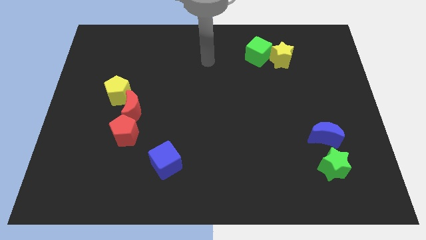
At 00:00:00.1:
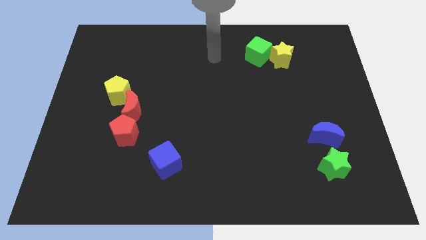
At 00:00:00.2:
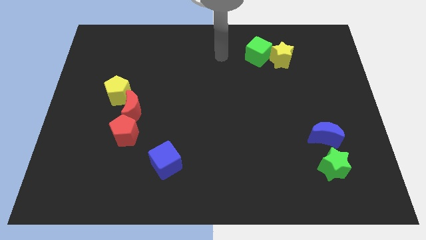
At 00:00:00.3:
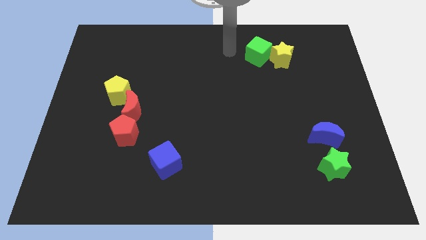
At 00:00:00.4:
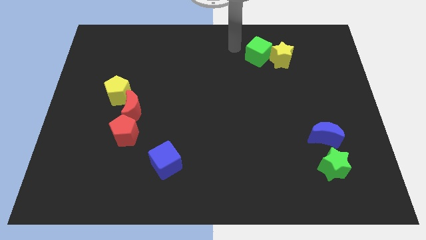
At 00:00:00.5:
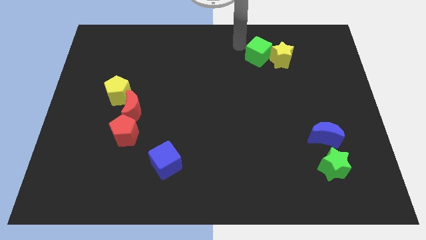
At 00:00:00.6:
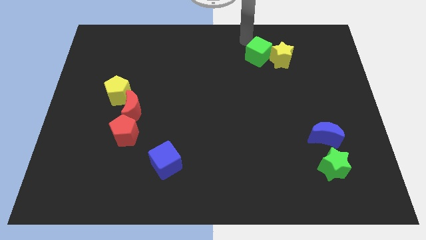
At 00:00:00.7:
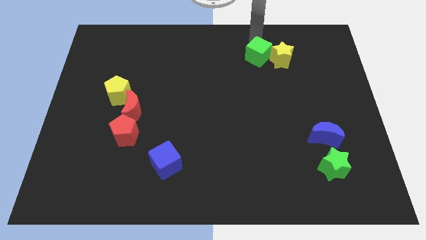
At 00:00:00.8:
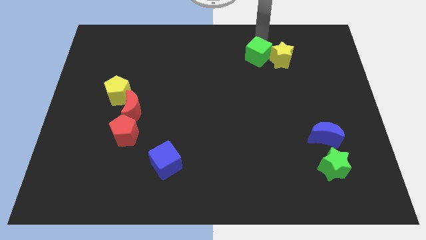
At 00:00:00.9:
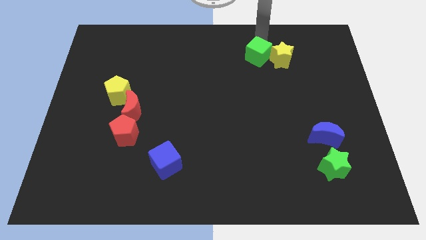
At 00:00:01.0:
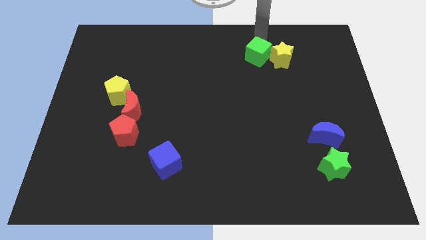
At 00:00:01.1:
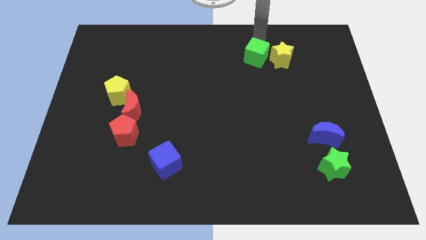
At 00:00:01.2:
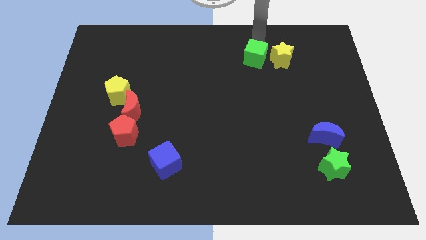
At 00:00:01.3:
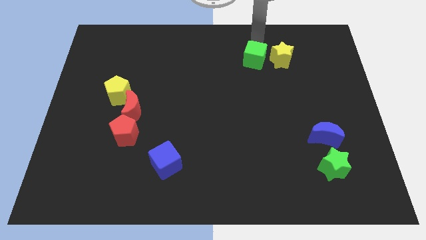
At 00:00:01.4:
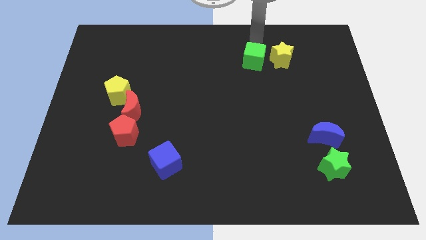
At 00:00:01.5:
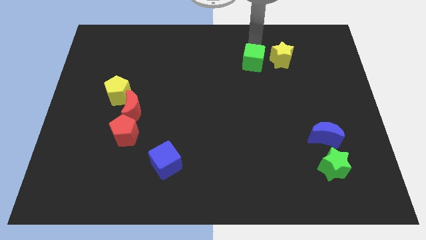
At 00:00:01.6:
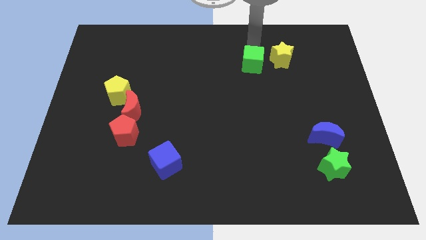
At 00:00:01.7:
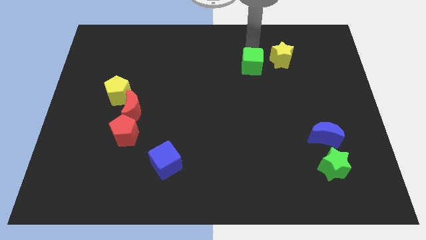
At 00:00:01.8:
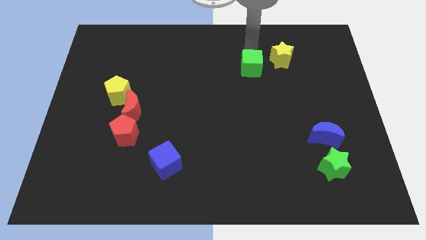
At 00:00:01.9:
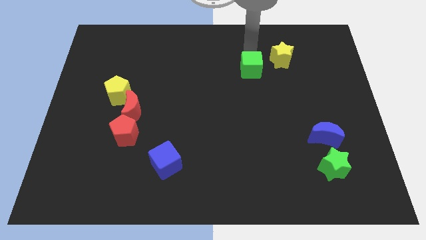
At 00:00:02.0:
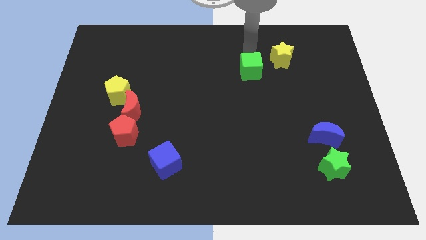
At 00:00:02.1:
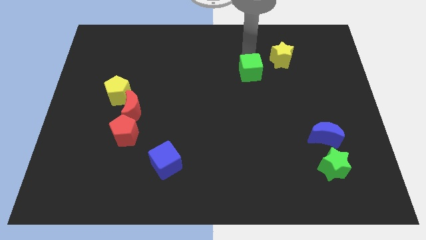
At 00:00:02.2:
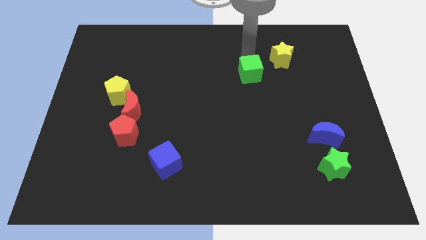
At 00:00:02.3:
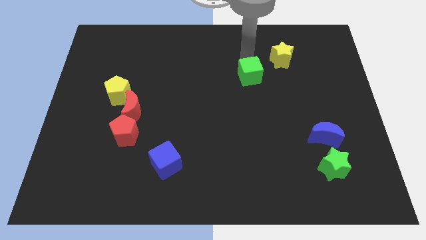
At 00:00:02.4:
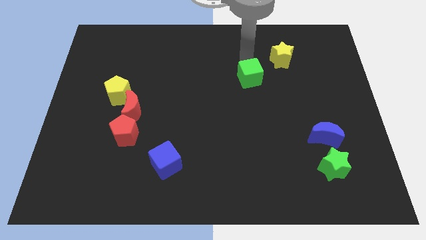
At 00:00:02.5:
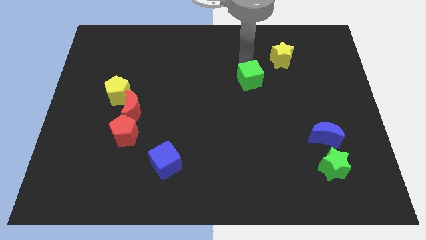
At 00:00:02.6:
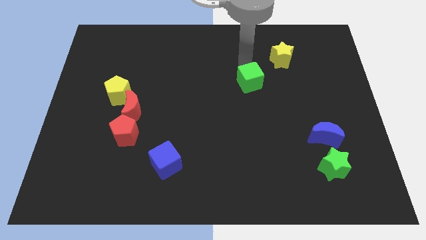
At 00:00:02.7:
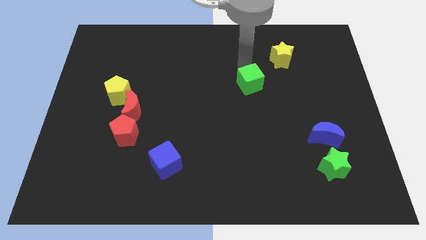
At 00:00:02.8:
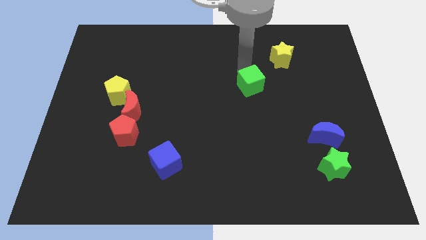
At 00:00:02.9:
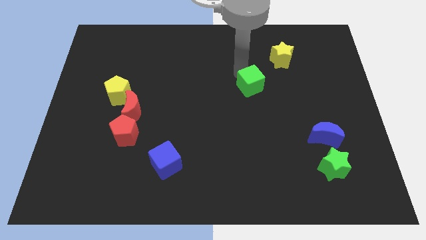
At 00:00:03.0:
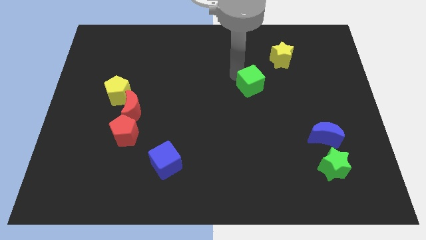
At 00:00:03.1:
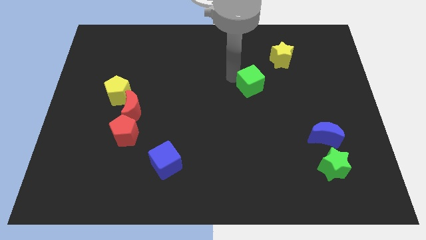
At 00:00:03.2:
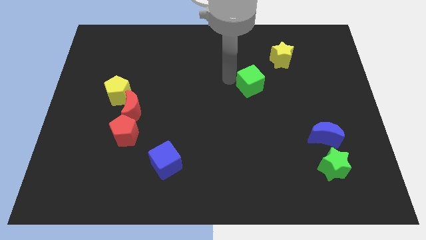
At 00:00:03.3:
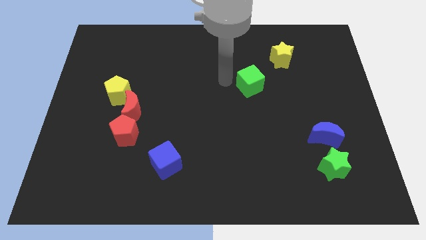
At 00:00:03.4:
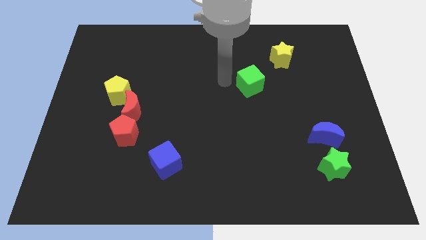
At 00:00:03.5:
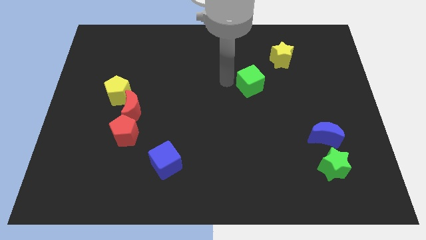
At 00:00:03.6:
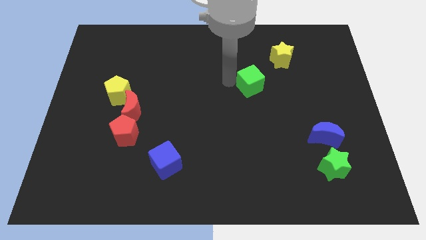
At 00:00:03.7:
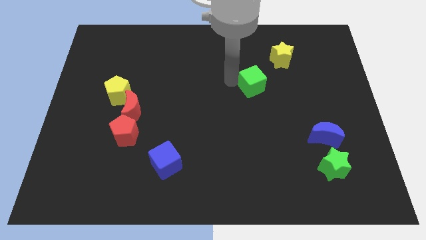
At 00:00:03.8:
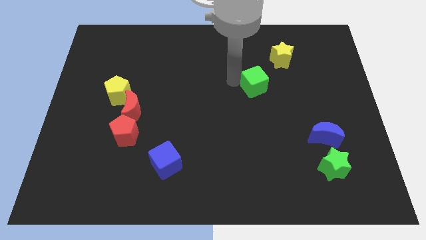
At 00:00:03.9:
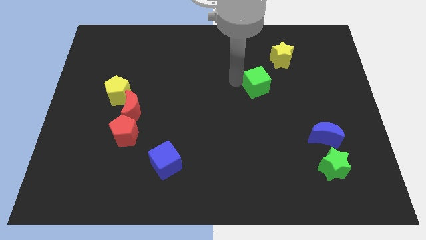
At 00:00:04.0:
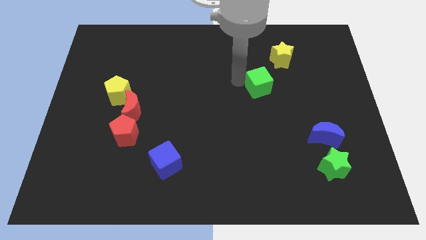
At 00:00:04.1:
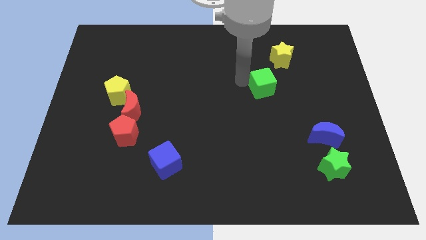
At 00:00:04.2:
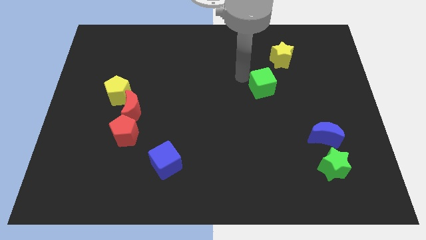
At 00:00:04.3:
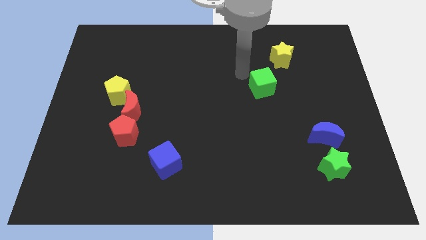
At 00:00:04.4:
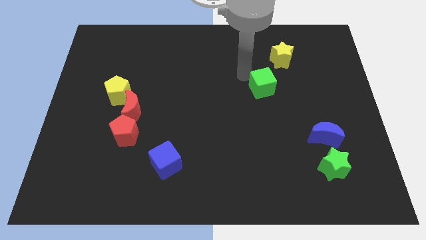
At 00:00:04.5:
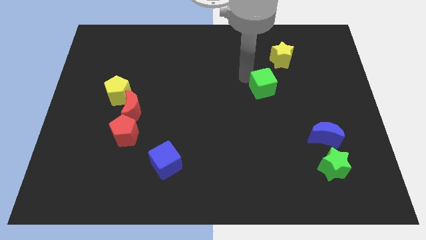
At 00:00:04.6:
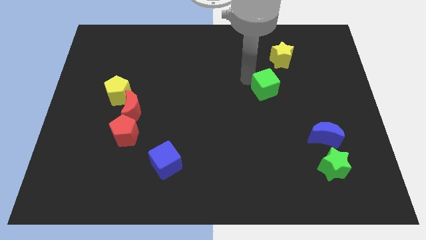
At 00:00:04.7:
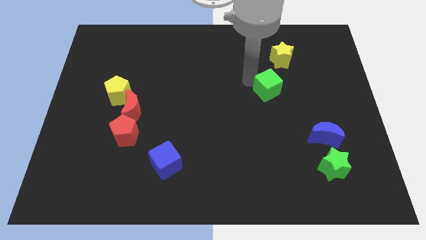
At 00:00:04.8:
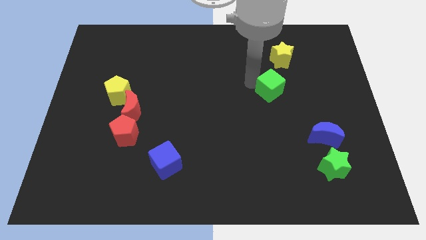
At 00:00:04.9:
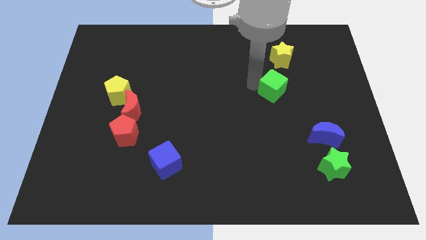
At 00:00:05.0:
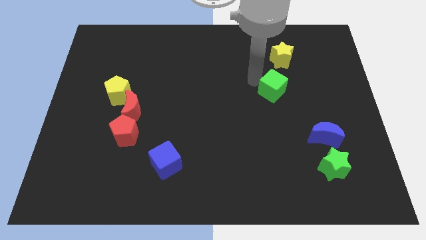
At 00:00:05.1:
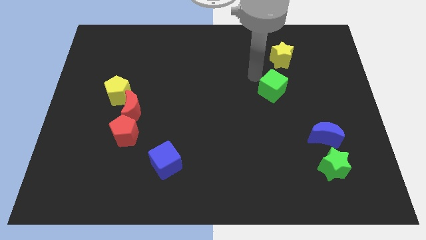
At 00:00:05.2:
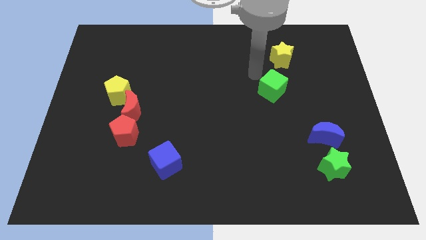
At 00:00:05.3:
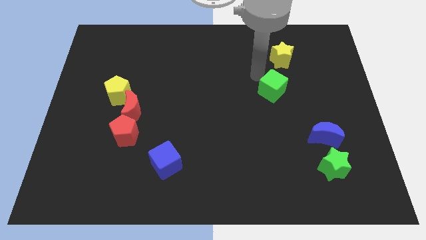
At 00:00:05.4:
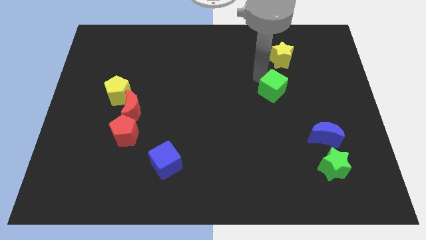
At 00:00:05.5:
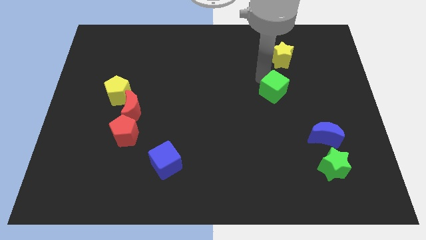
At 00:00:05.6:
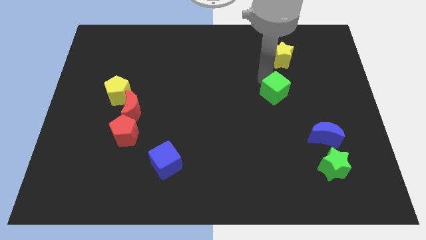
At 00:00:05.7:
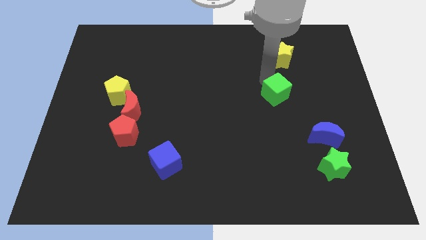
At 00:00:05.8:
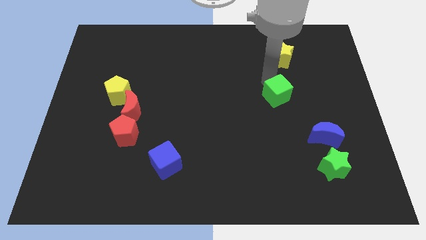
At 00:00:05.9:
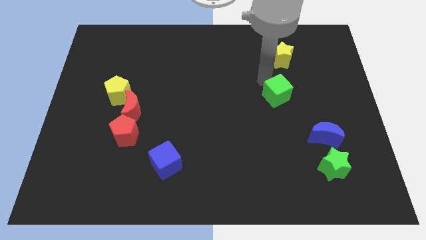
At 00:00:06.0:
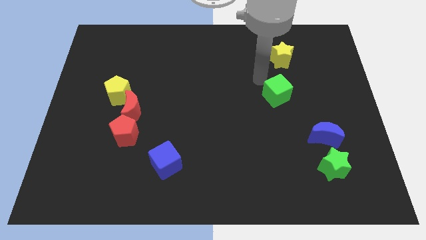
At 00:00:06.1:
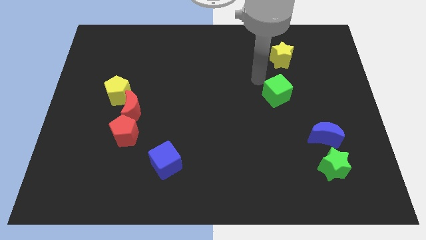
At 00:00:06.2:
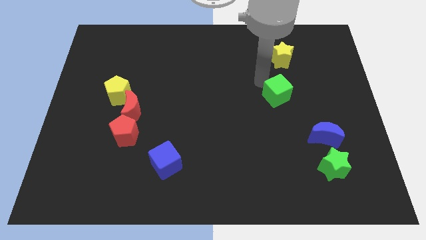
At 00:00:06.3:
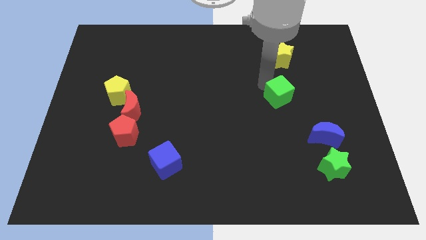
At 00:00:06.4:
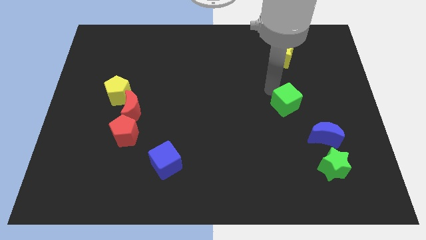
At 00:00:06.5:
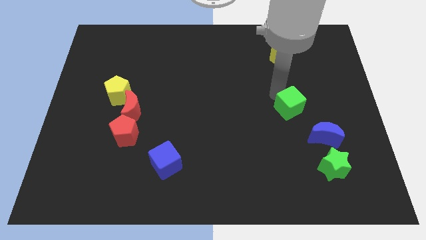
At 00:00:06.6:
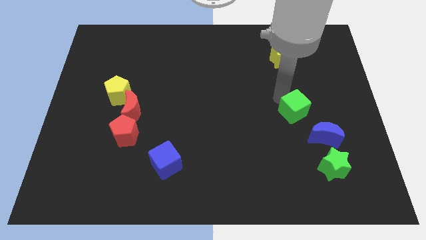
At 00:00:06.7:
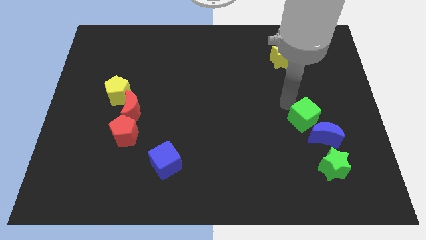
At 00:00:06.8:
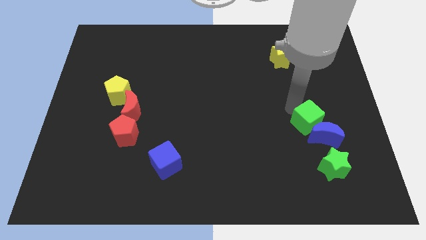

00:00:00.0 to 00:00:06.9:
move the green cube towards the blue moon

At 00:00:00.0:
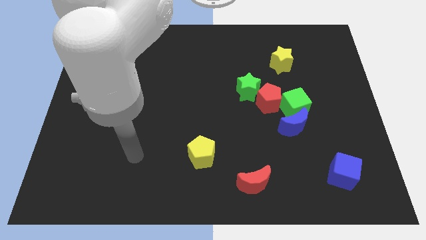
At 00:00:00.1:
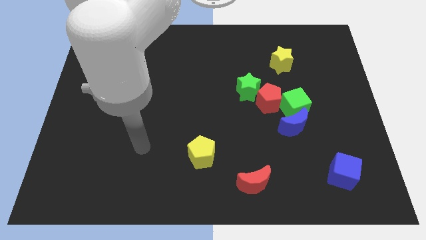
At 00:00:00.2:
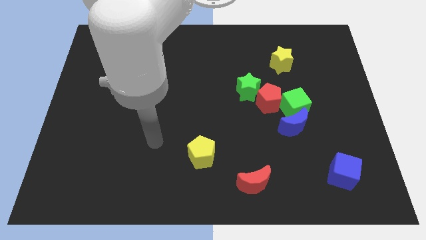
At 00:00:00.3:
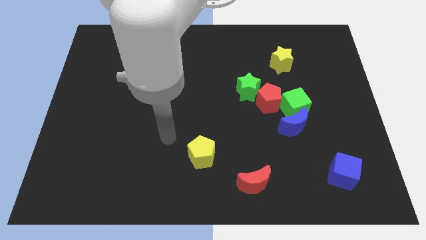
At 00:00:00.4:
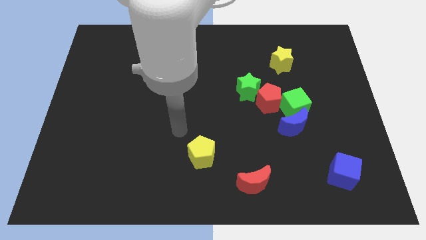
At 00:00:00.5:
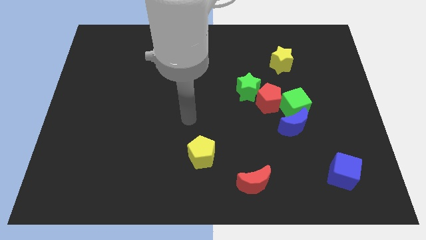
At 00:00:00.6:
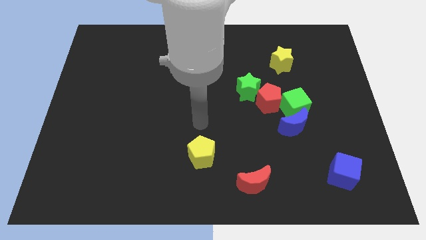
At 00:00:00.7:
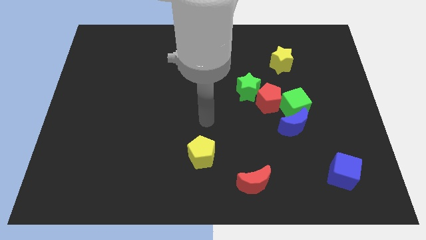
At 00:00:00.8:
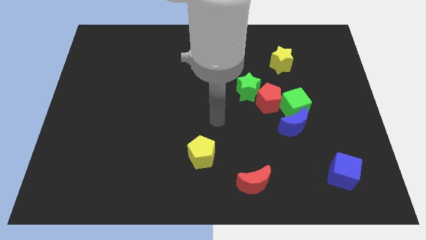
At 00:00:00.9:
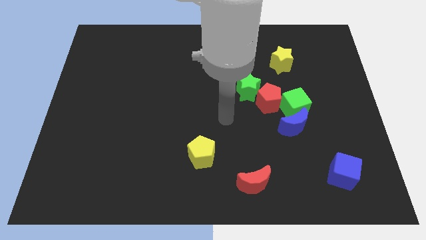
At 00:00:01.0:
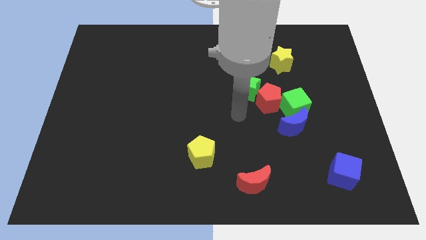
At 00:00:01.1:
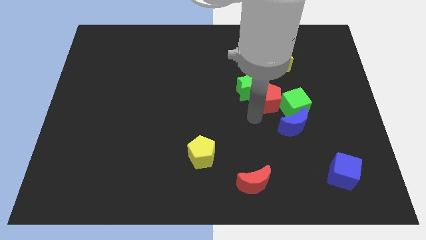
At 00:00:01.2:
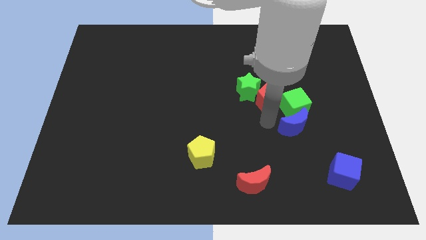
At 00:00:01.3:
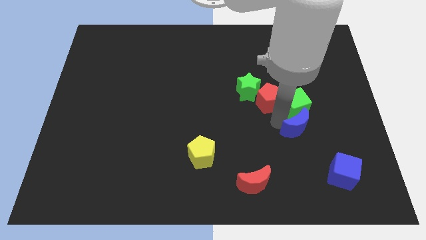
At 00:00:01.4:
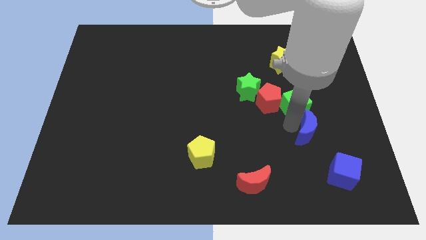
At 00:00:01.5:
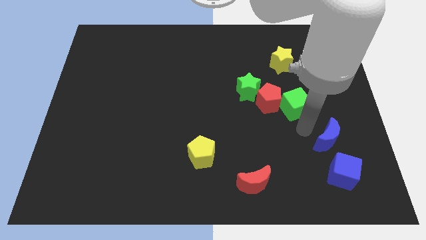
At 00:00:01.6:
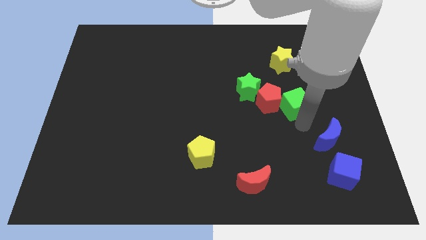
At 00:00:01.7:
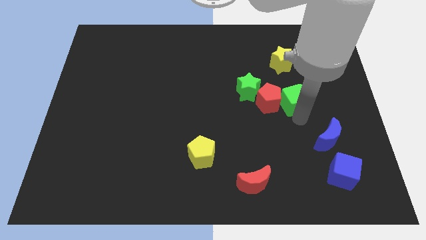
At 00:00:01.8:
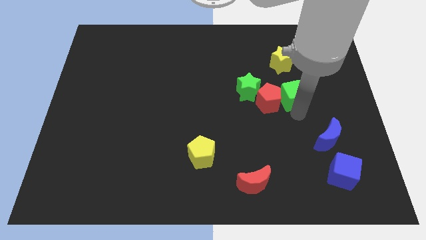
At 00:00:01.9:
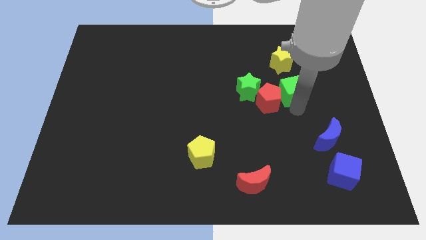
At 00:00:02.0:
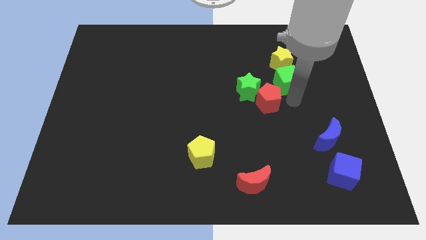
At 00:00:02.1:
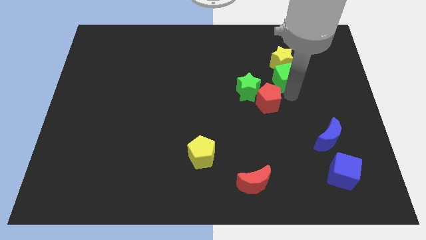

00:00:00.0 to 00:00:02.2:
put the green cube to the yellow star
